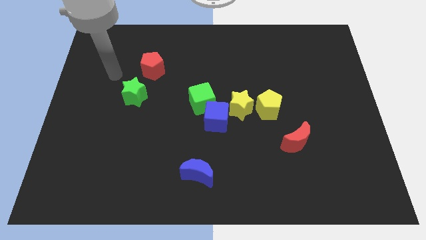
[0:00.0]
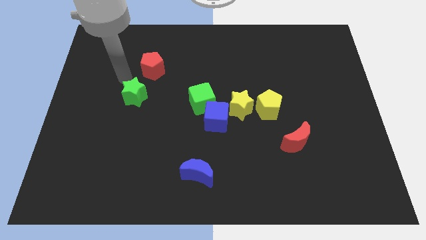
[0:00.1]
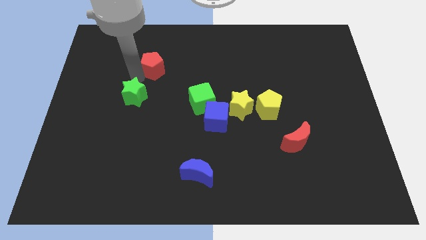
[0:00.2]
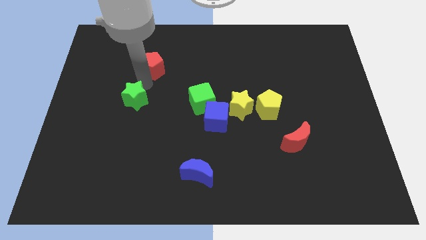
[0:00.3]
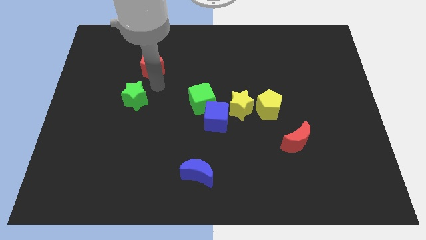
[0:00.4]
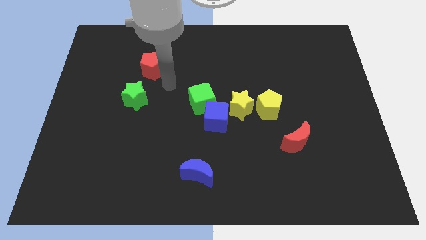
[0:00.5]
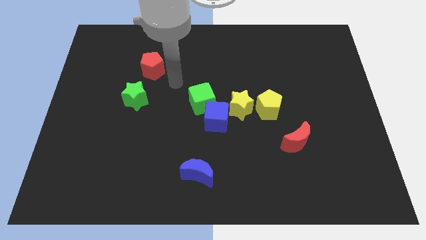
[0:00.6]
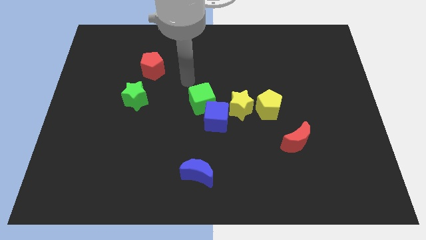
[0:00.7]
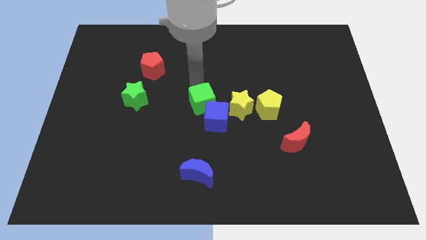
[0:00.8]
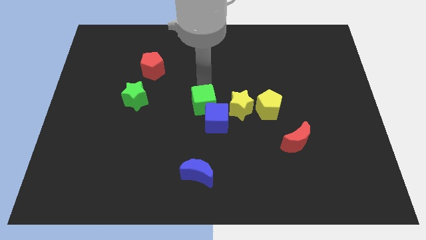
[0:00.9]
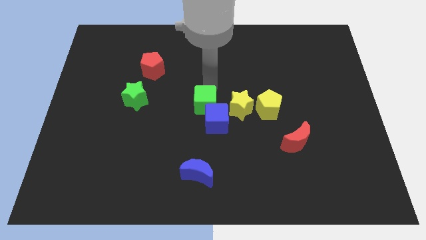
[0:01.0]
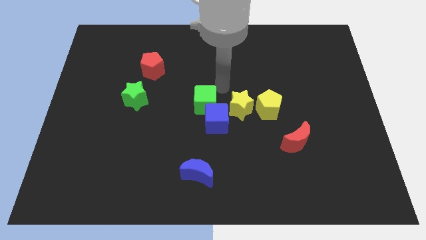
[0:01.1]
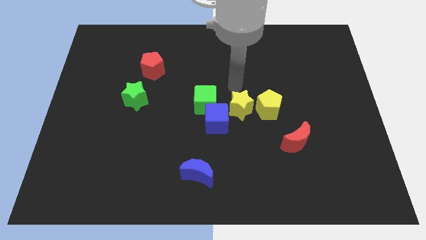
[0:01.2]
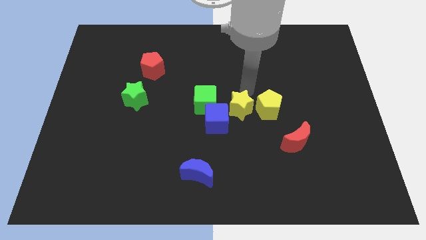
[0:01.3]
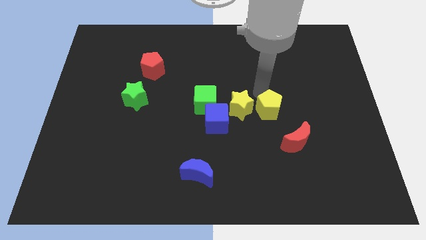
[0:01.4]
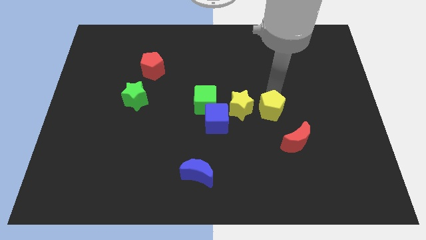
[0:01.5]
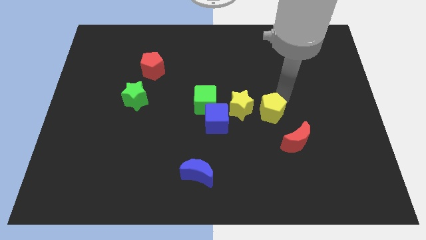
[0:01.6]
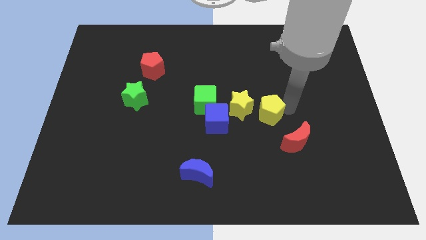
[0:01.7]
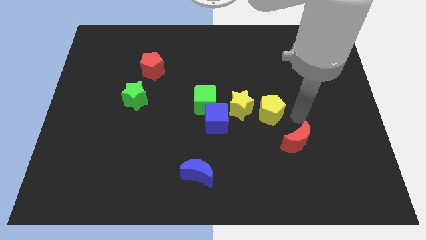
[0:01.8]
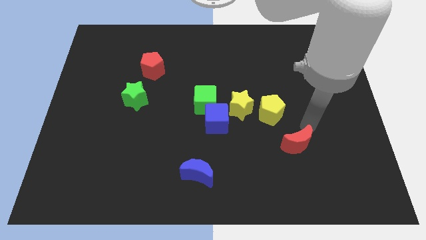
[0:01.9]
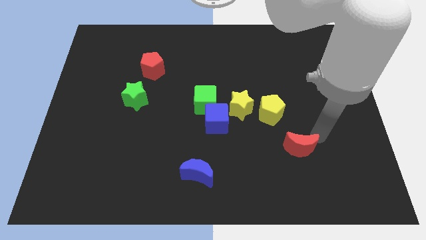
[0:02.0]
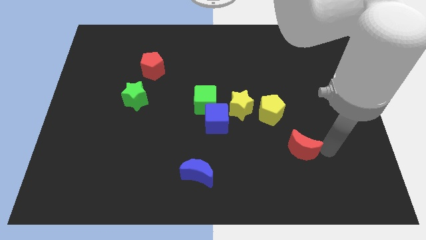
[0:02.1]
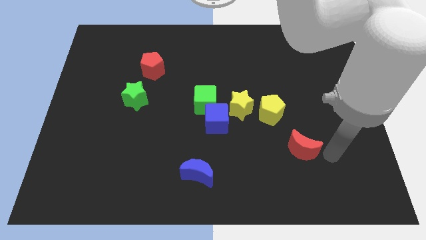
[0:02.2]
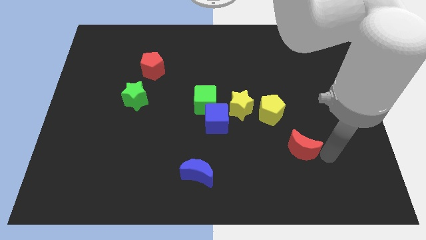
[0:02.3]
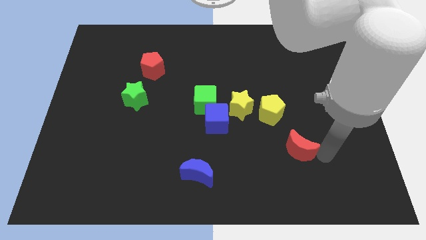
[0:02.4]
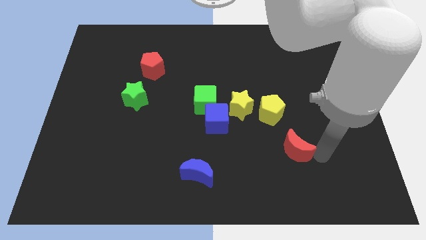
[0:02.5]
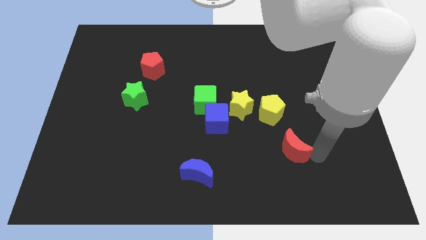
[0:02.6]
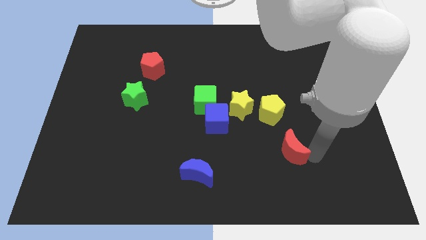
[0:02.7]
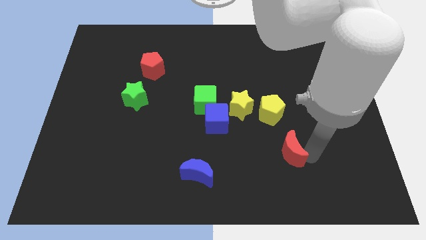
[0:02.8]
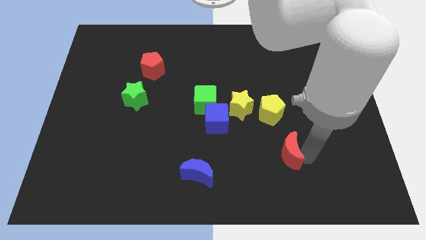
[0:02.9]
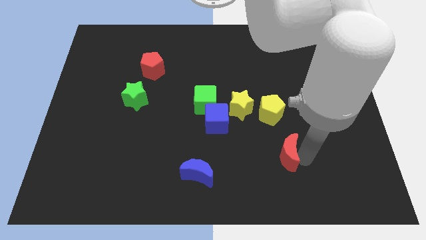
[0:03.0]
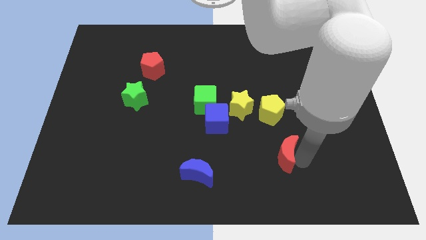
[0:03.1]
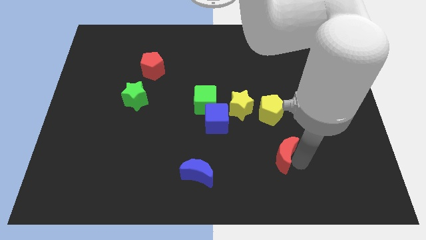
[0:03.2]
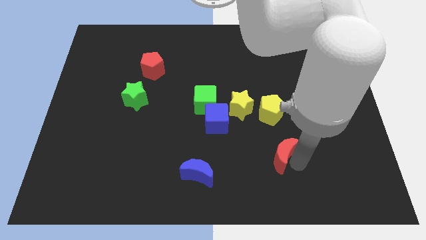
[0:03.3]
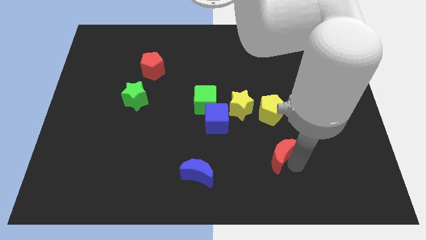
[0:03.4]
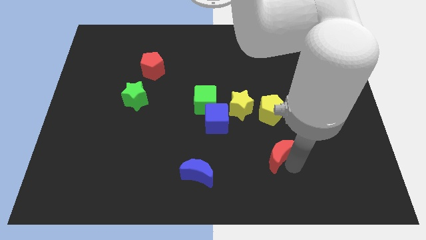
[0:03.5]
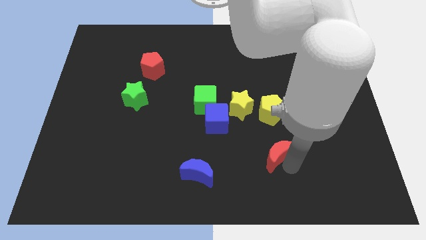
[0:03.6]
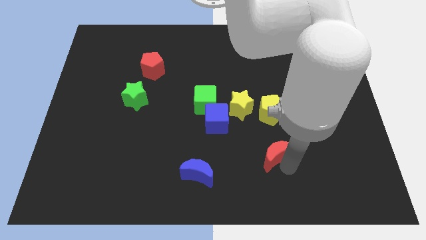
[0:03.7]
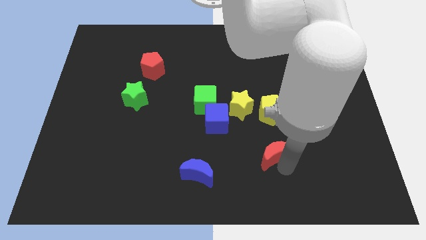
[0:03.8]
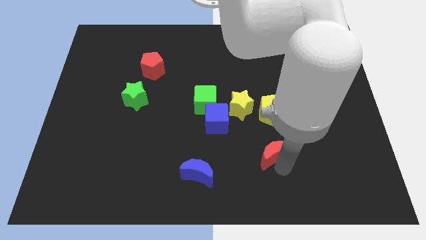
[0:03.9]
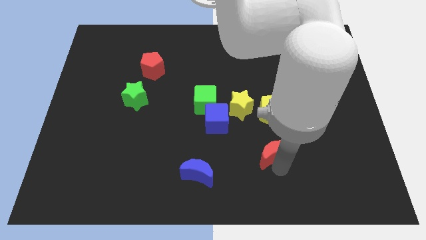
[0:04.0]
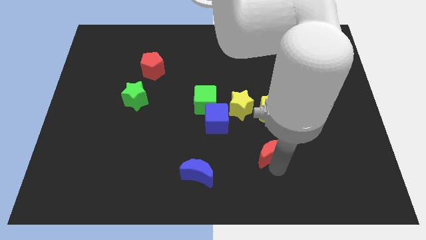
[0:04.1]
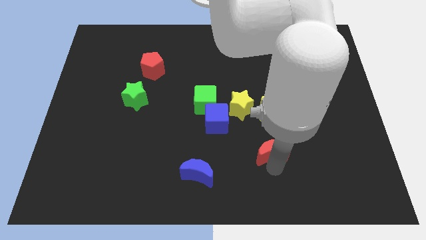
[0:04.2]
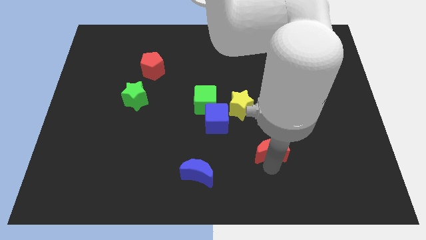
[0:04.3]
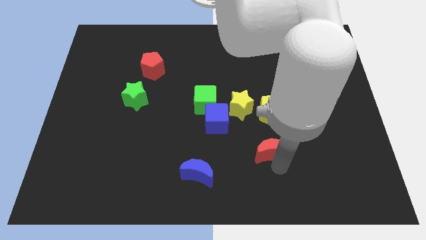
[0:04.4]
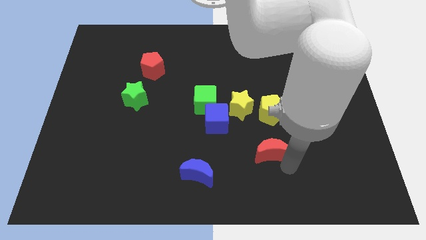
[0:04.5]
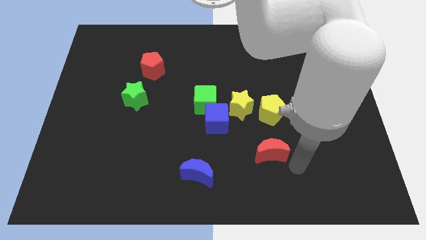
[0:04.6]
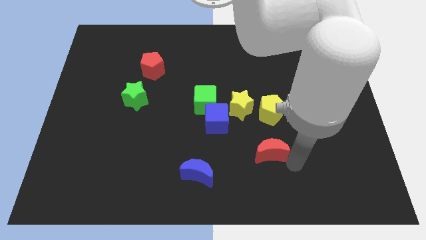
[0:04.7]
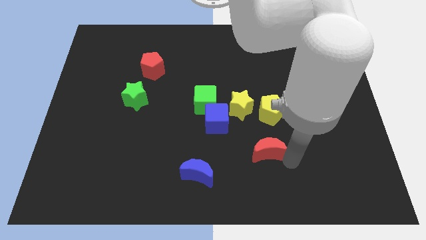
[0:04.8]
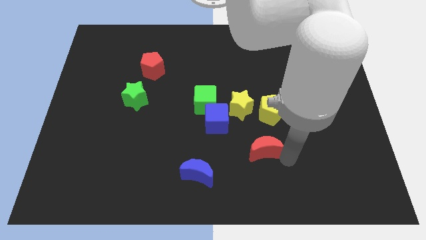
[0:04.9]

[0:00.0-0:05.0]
slightly push the red moon to the left

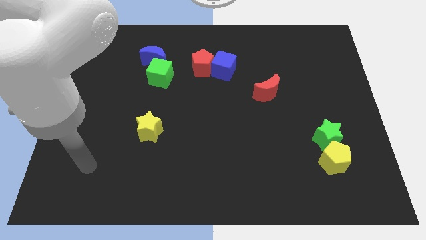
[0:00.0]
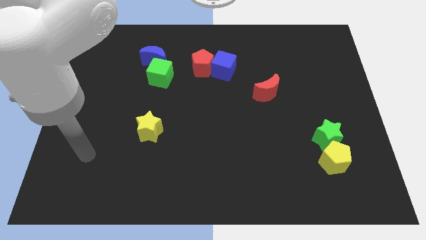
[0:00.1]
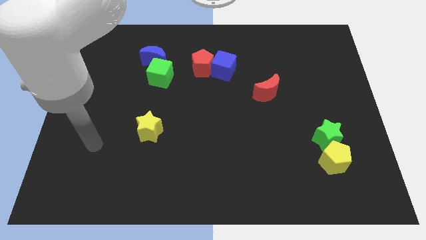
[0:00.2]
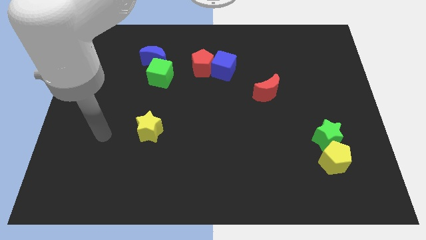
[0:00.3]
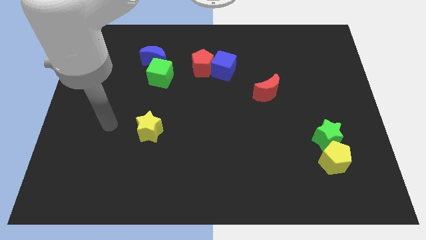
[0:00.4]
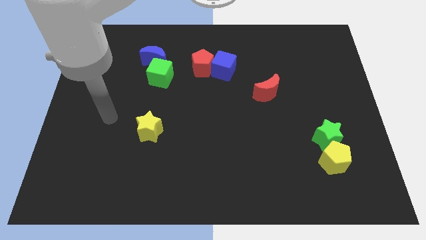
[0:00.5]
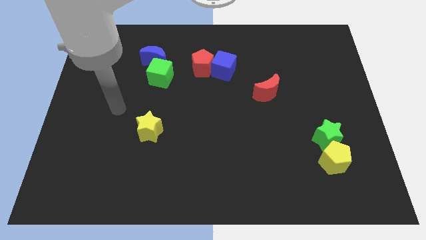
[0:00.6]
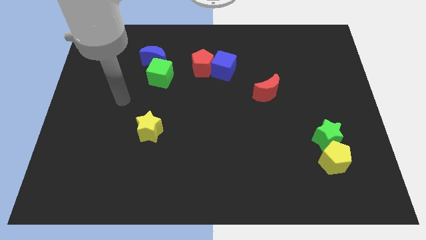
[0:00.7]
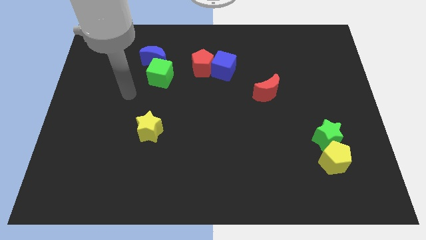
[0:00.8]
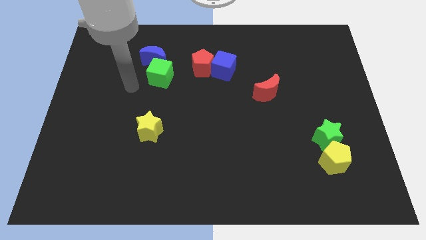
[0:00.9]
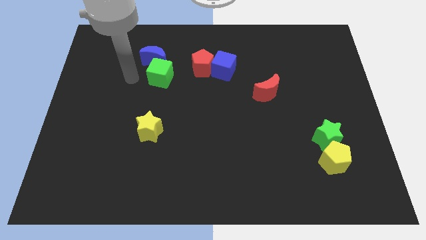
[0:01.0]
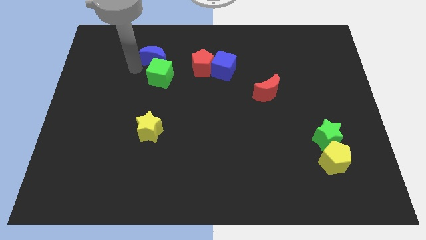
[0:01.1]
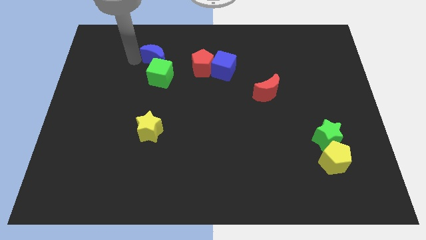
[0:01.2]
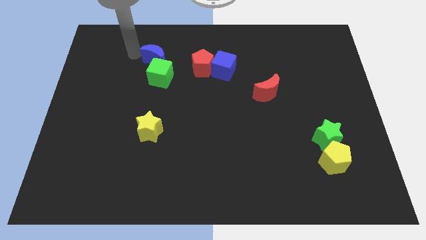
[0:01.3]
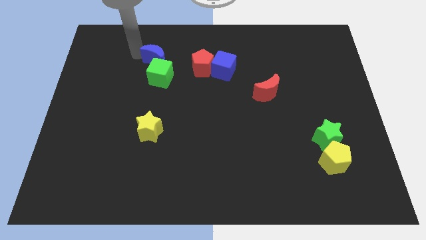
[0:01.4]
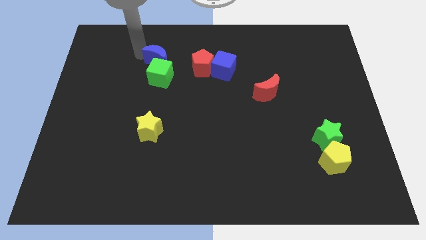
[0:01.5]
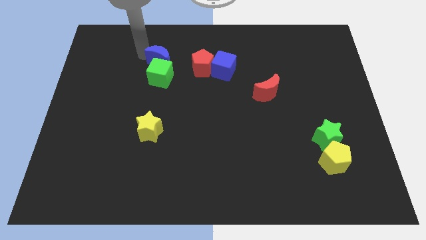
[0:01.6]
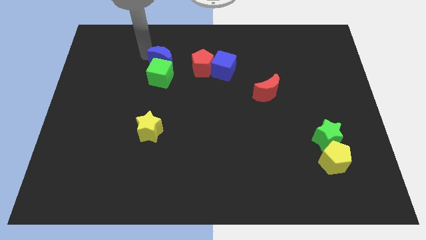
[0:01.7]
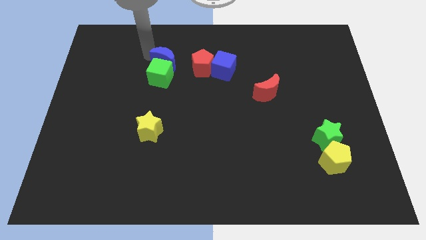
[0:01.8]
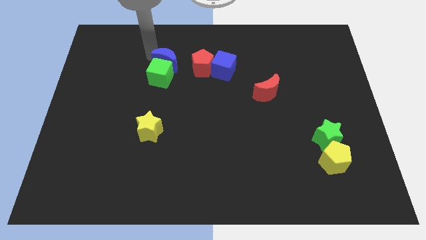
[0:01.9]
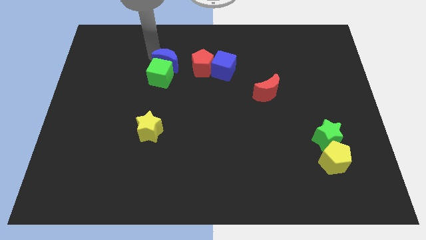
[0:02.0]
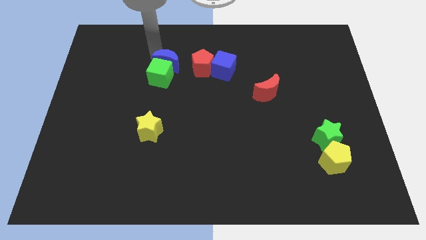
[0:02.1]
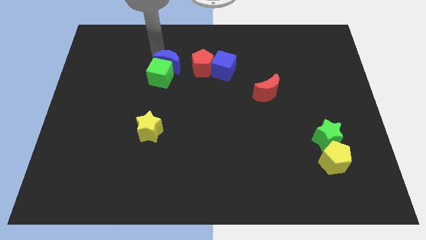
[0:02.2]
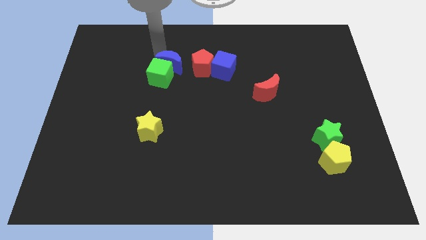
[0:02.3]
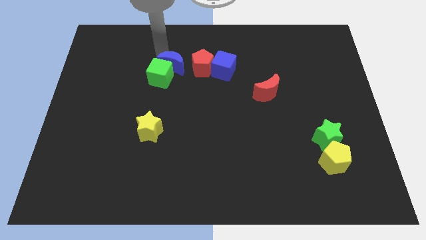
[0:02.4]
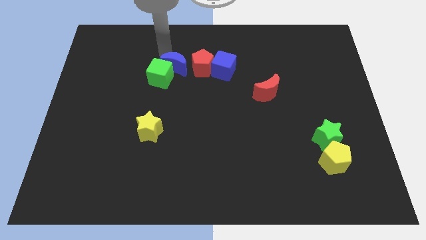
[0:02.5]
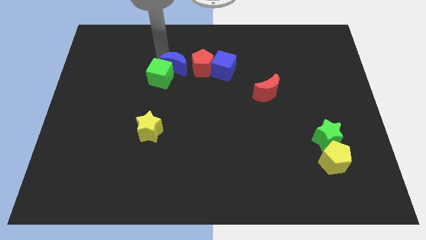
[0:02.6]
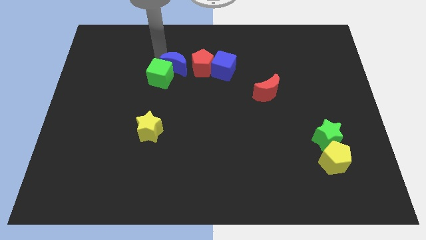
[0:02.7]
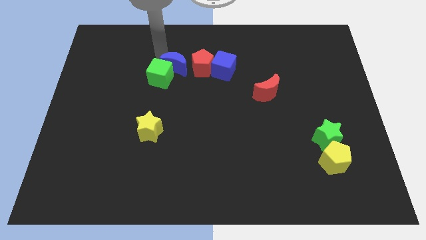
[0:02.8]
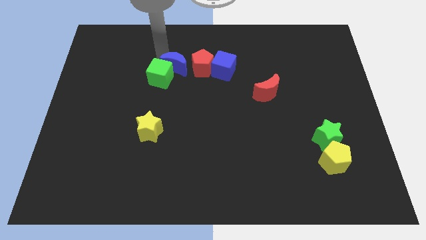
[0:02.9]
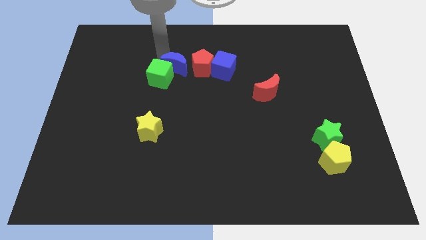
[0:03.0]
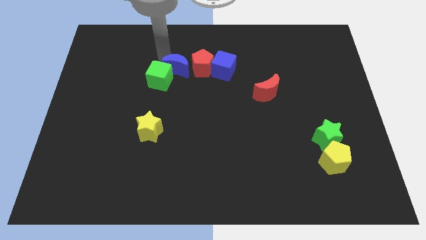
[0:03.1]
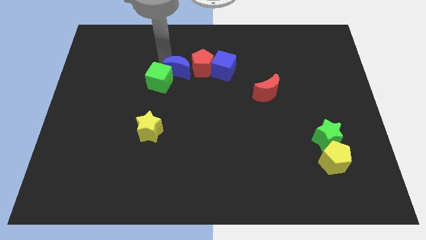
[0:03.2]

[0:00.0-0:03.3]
push the blue moon diagonally down and right slightly

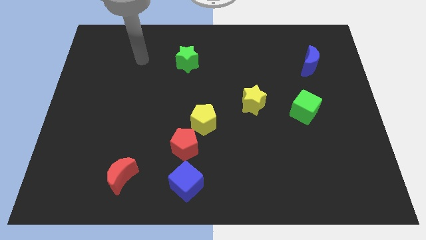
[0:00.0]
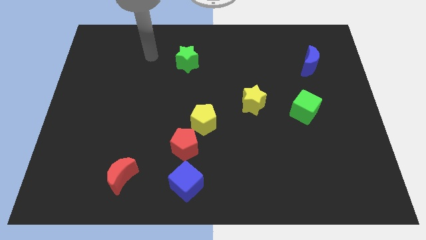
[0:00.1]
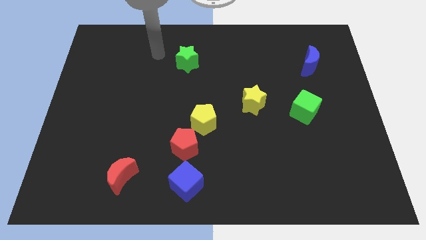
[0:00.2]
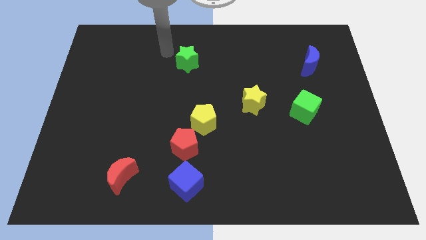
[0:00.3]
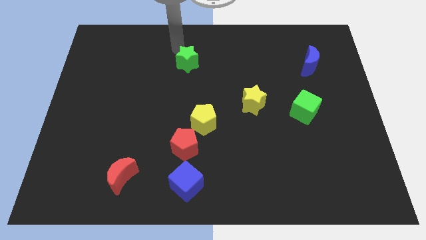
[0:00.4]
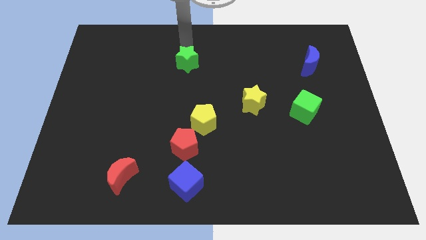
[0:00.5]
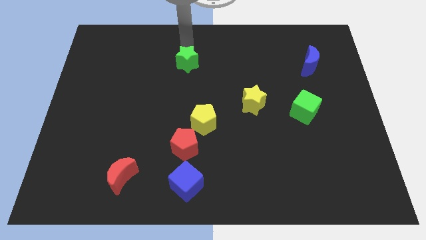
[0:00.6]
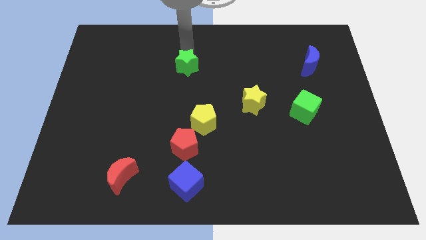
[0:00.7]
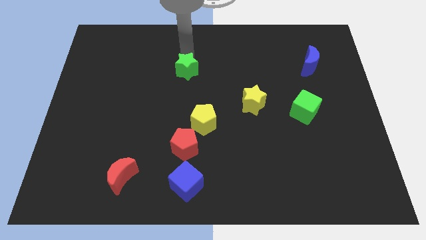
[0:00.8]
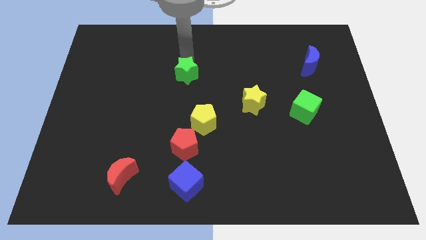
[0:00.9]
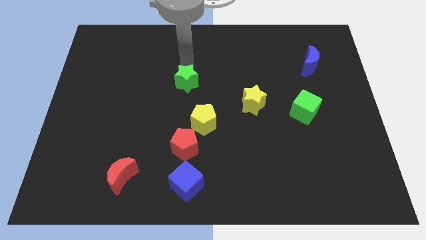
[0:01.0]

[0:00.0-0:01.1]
slightly move the green star down
